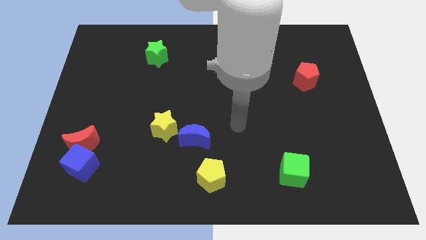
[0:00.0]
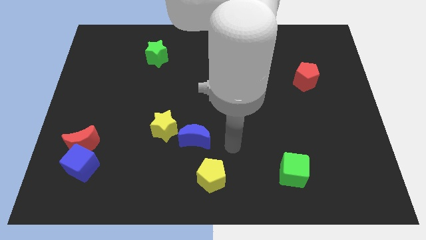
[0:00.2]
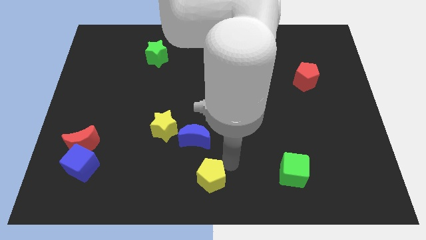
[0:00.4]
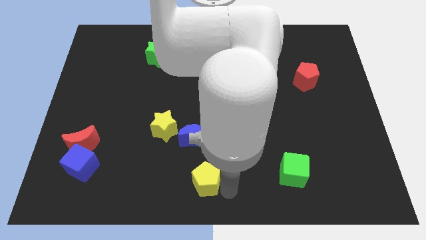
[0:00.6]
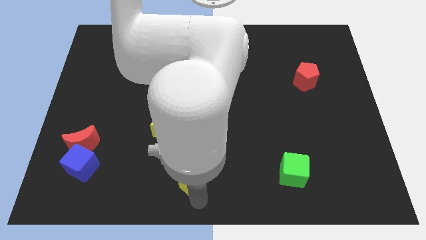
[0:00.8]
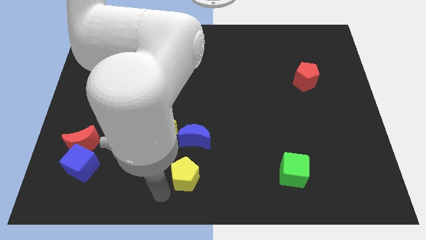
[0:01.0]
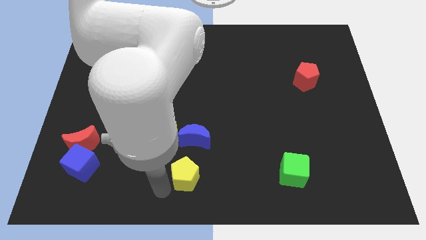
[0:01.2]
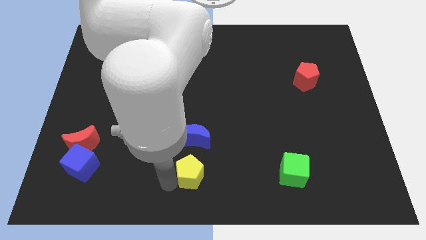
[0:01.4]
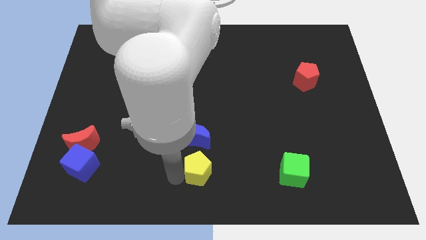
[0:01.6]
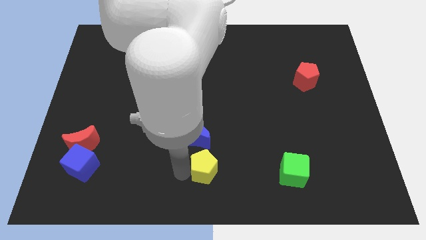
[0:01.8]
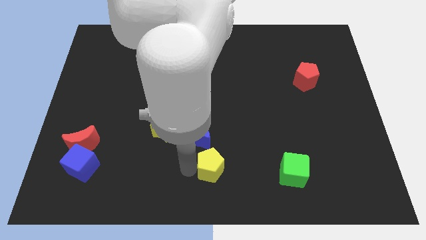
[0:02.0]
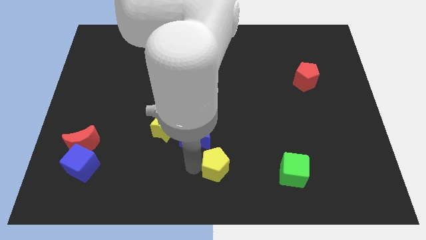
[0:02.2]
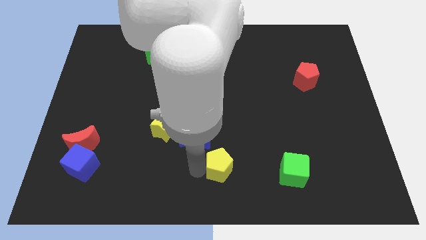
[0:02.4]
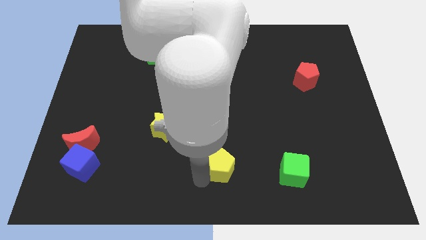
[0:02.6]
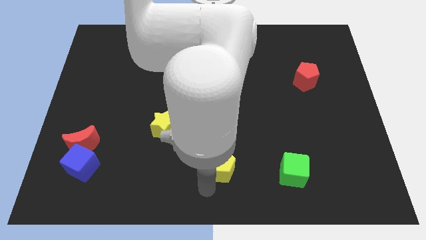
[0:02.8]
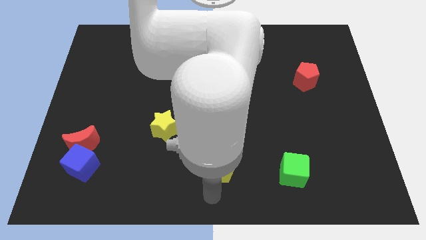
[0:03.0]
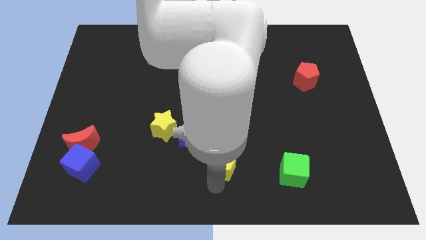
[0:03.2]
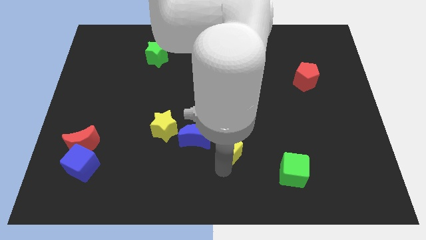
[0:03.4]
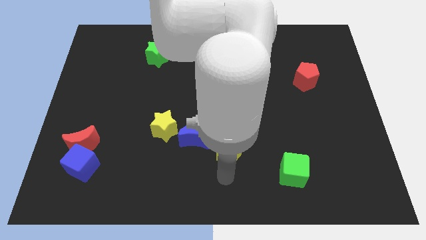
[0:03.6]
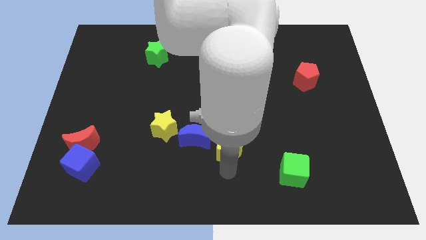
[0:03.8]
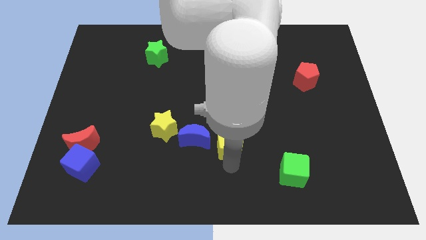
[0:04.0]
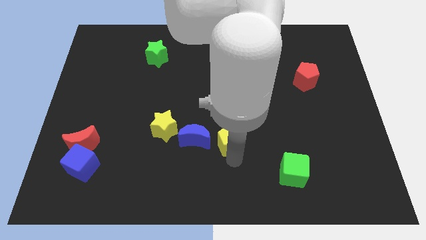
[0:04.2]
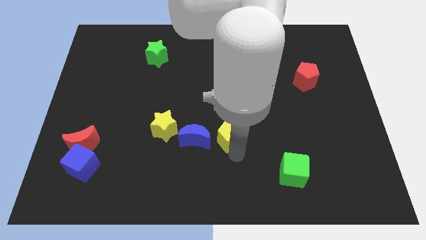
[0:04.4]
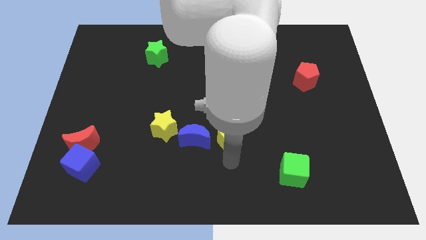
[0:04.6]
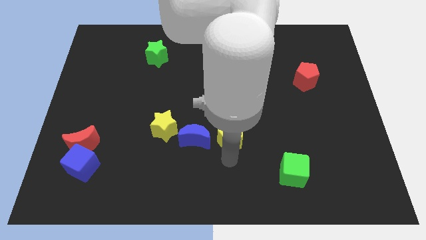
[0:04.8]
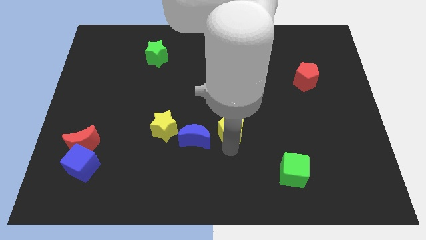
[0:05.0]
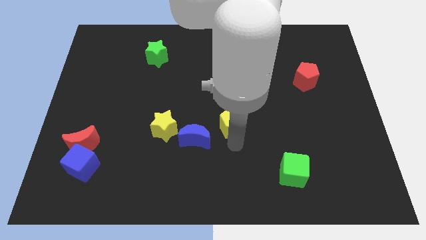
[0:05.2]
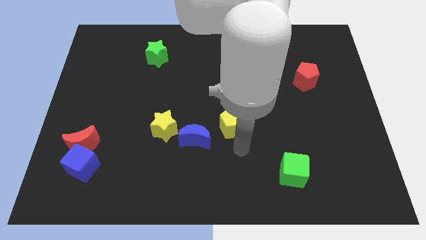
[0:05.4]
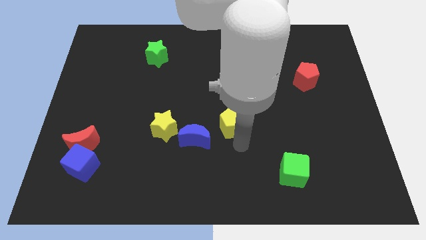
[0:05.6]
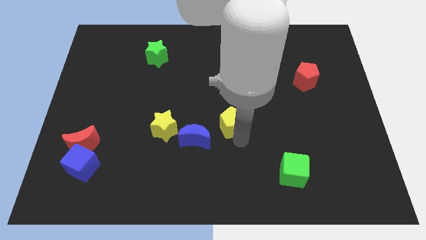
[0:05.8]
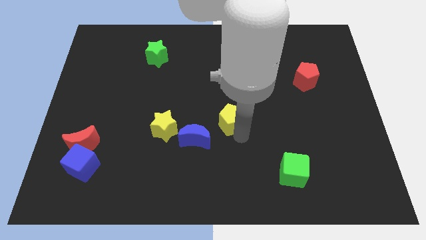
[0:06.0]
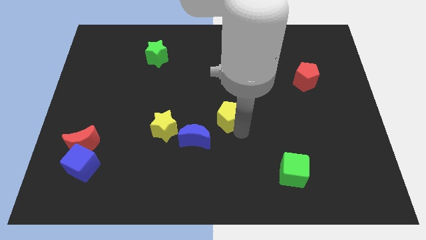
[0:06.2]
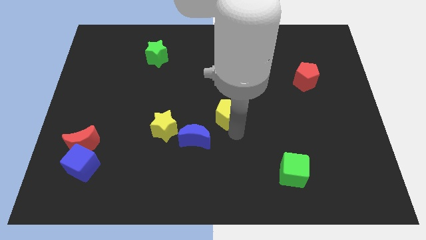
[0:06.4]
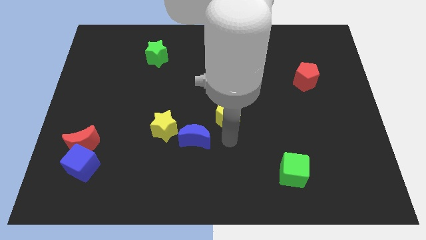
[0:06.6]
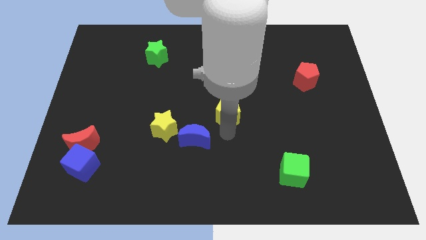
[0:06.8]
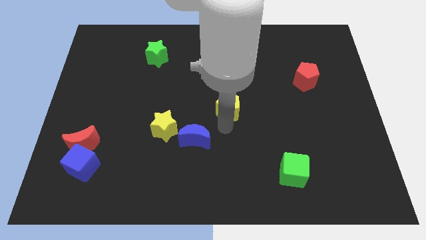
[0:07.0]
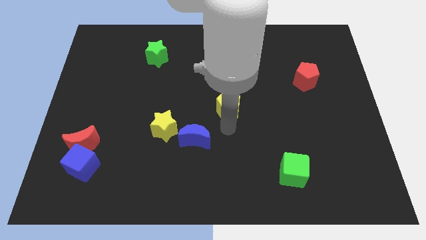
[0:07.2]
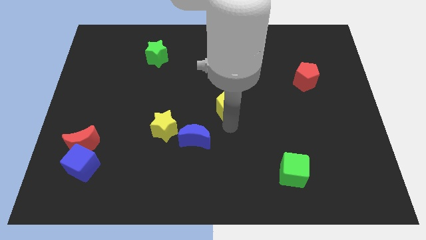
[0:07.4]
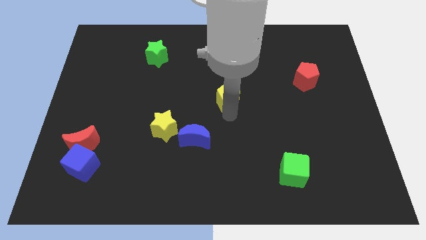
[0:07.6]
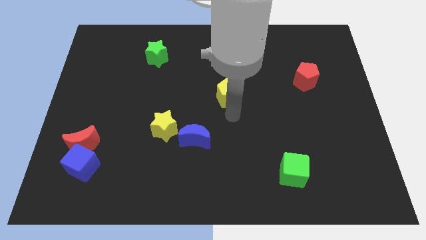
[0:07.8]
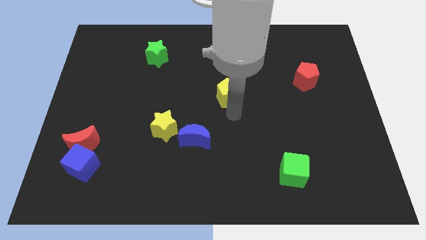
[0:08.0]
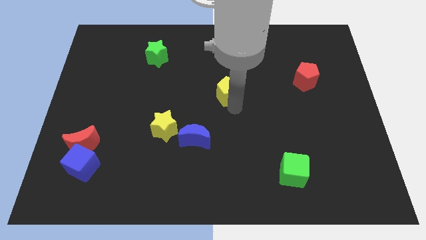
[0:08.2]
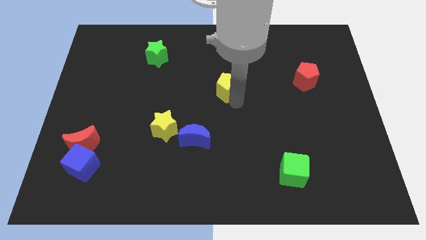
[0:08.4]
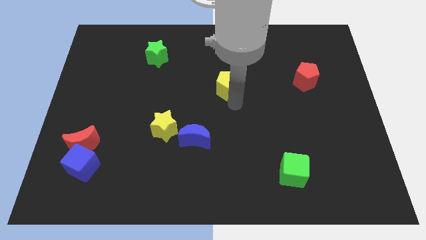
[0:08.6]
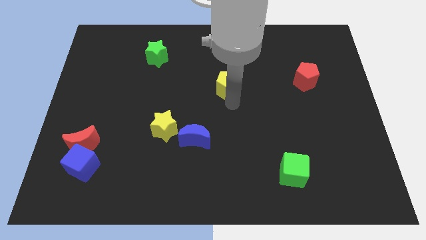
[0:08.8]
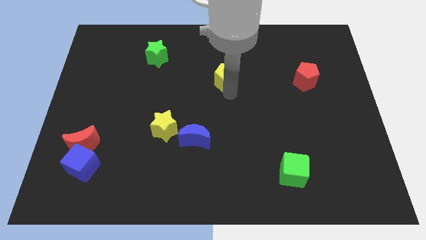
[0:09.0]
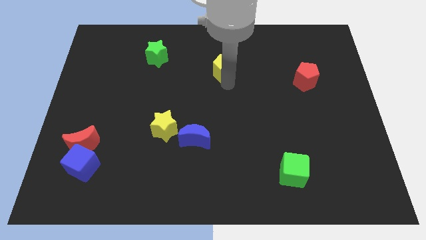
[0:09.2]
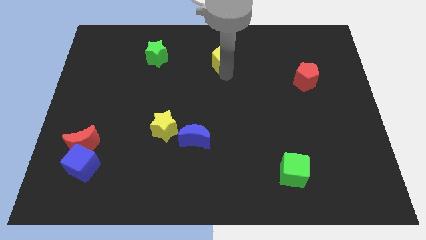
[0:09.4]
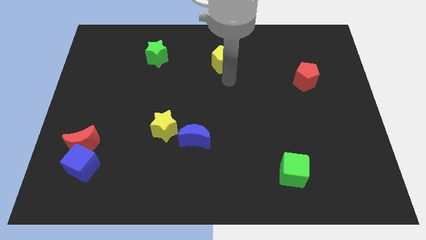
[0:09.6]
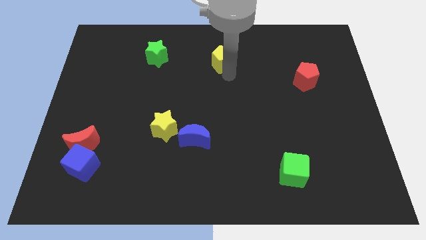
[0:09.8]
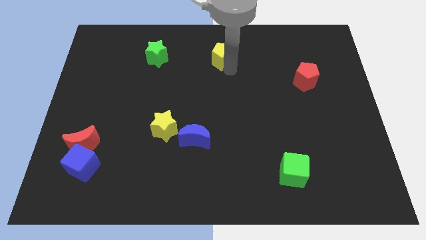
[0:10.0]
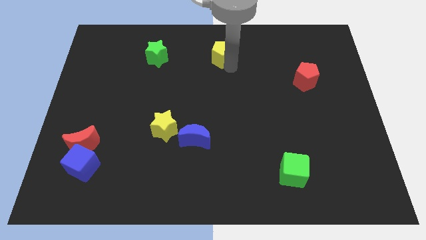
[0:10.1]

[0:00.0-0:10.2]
put the yellow pentagon to the top side

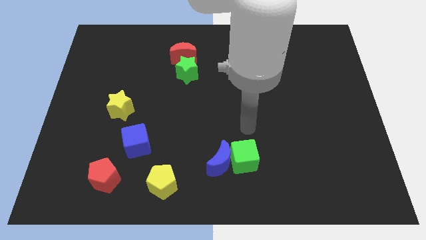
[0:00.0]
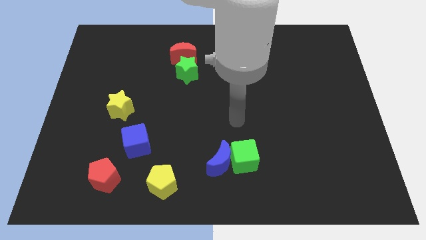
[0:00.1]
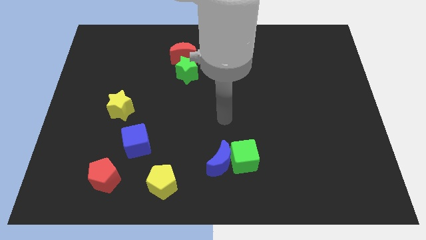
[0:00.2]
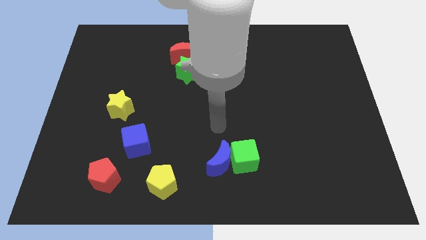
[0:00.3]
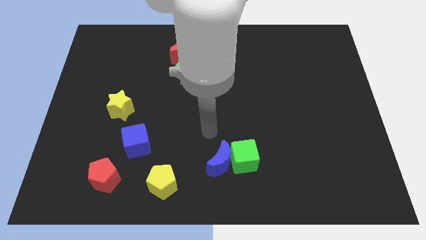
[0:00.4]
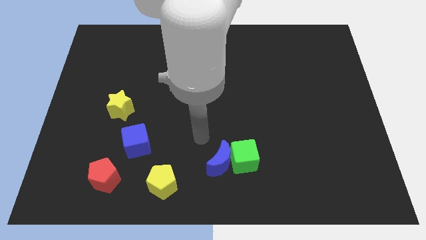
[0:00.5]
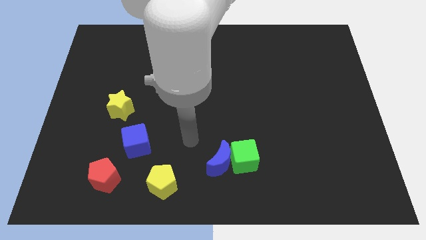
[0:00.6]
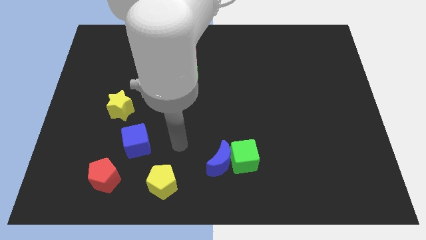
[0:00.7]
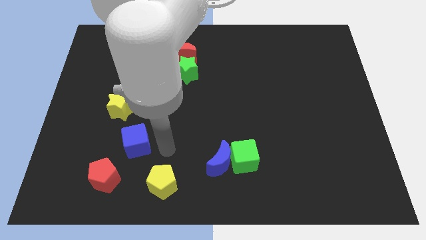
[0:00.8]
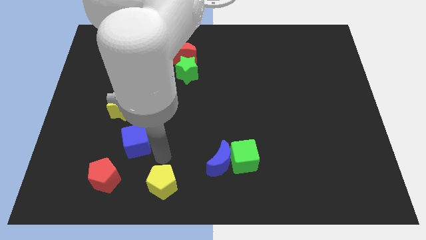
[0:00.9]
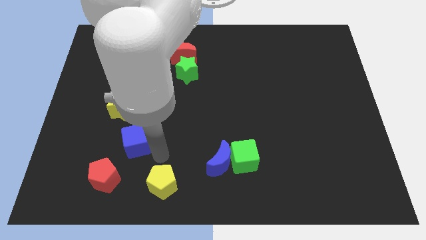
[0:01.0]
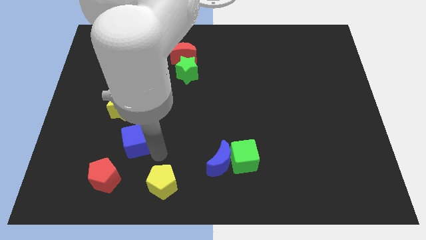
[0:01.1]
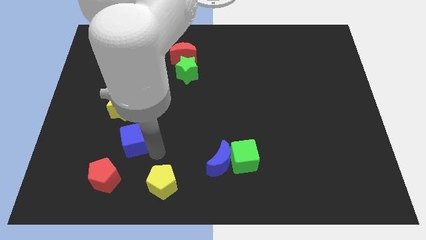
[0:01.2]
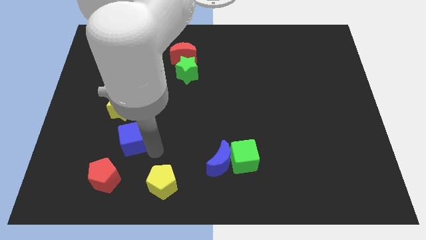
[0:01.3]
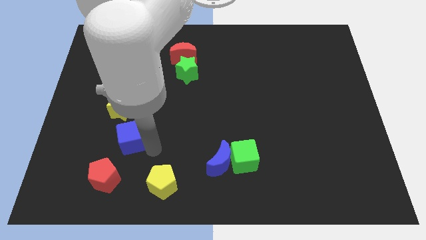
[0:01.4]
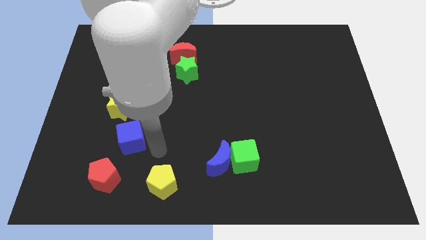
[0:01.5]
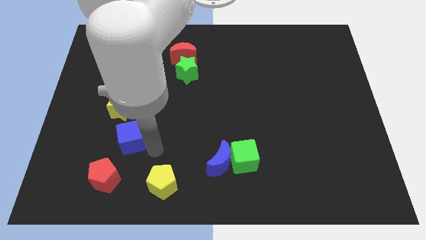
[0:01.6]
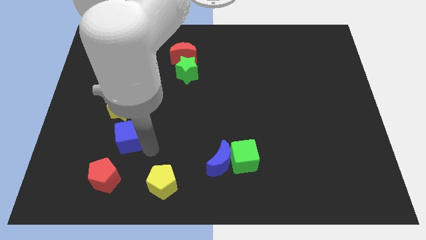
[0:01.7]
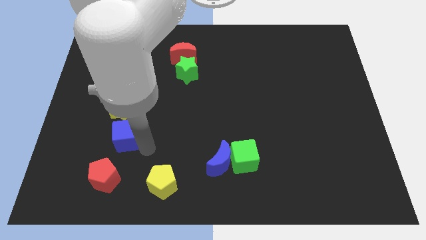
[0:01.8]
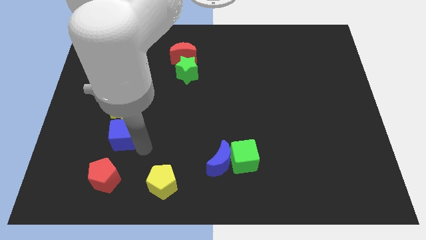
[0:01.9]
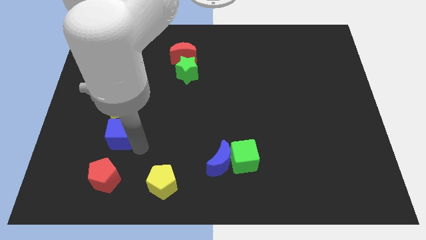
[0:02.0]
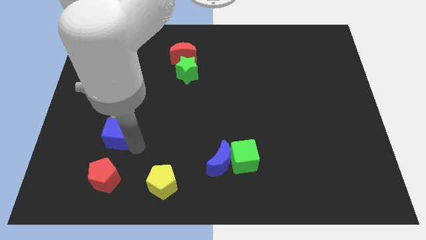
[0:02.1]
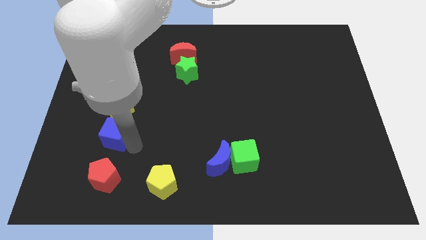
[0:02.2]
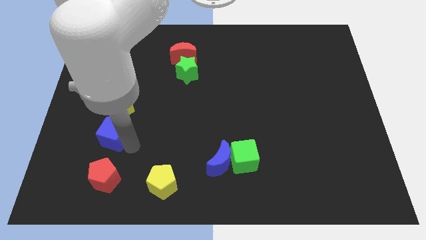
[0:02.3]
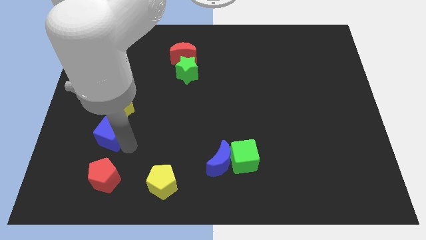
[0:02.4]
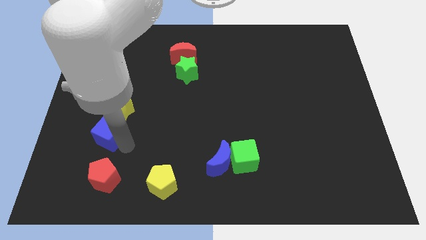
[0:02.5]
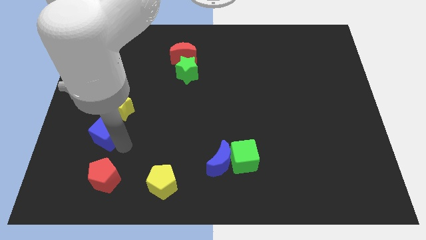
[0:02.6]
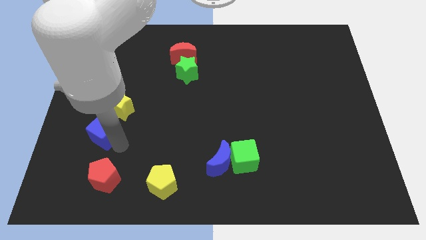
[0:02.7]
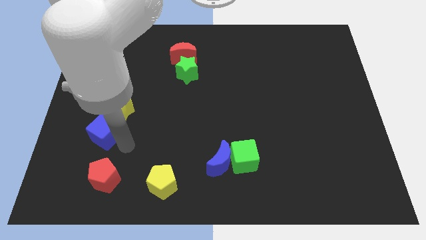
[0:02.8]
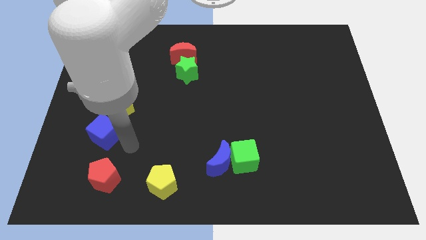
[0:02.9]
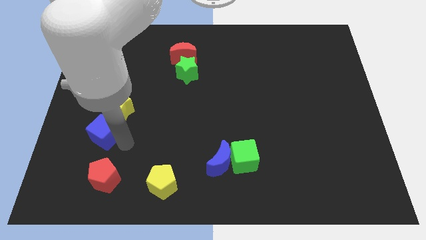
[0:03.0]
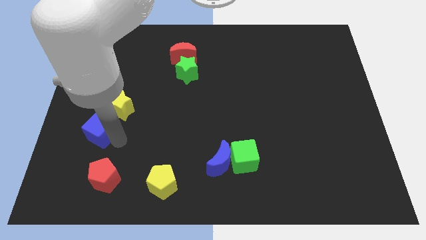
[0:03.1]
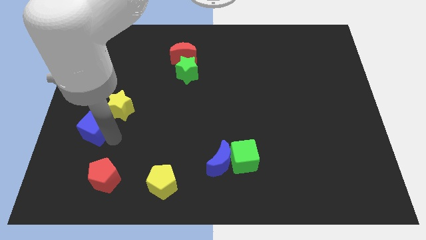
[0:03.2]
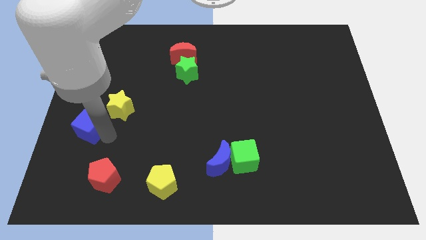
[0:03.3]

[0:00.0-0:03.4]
move the blue cube to the center left
